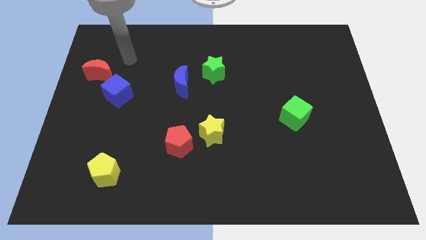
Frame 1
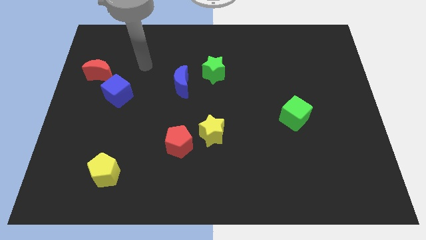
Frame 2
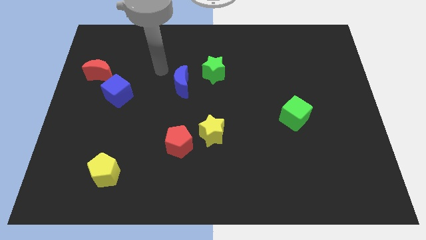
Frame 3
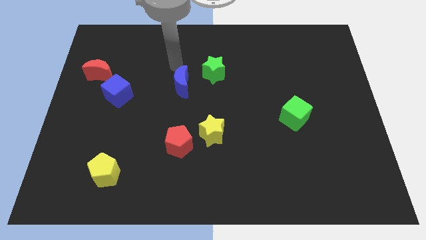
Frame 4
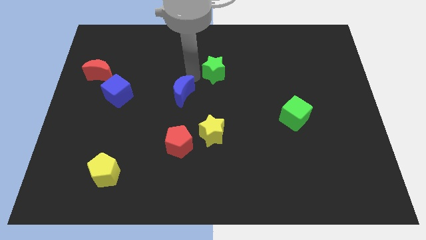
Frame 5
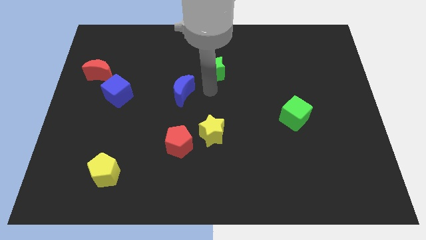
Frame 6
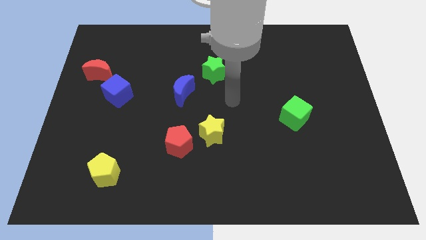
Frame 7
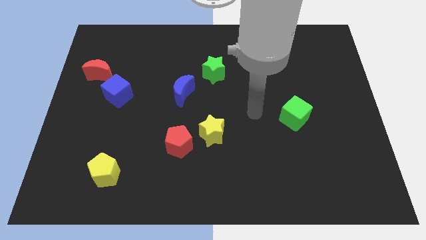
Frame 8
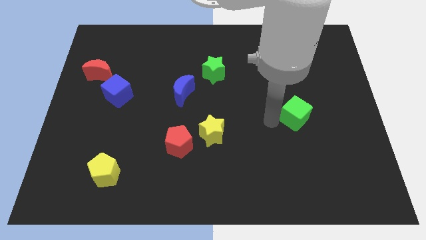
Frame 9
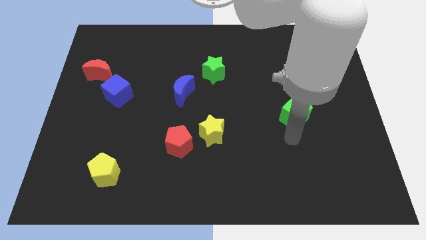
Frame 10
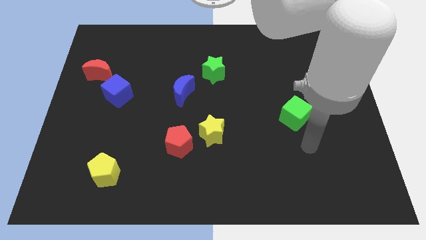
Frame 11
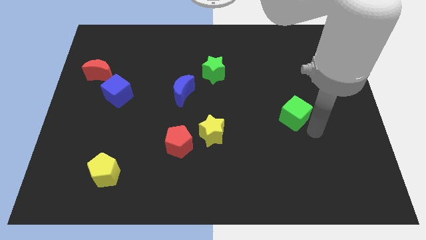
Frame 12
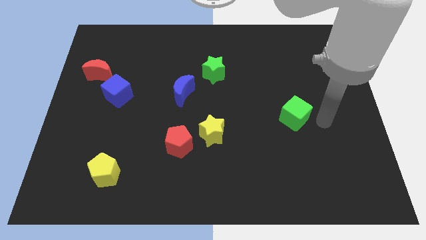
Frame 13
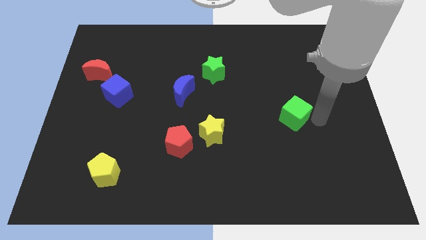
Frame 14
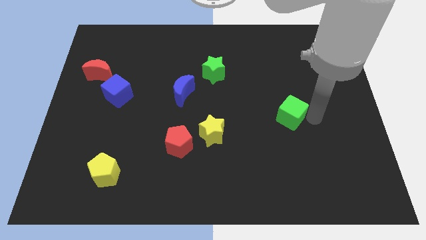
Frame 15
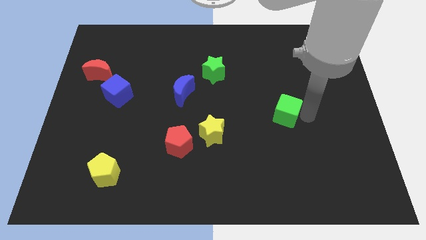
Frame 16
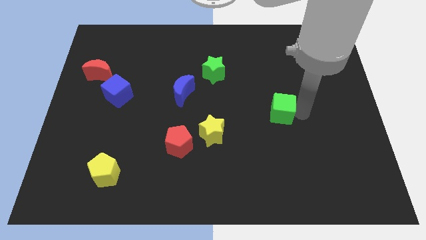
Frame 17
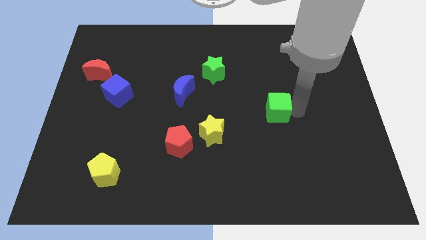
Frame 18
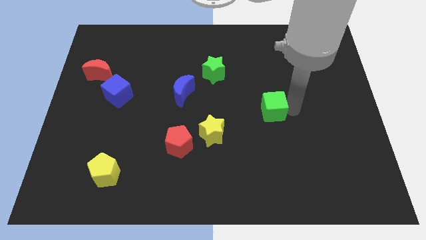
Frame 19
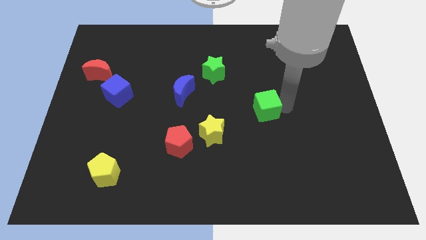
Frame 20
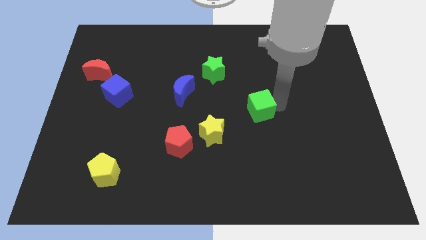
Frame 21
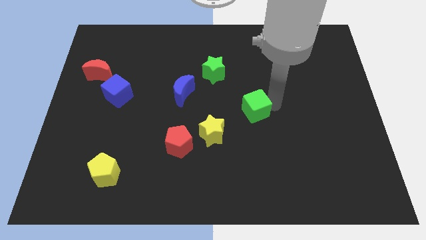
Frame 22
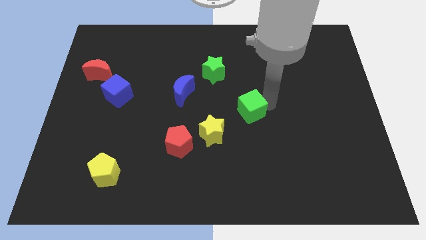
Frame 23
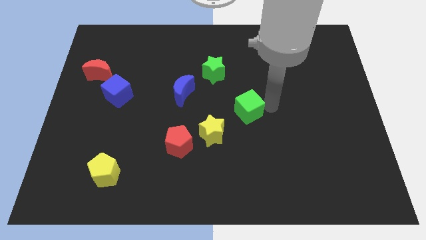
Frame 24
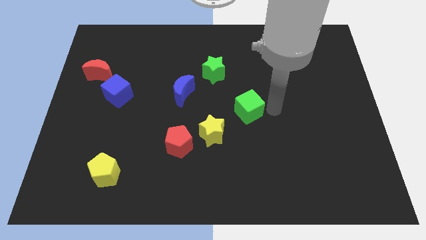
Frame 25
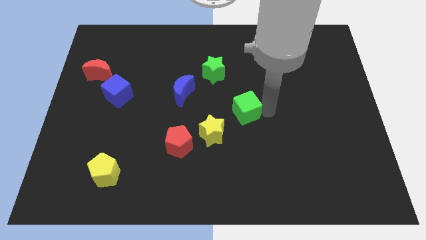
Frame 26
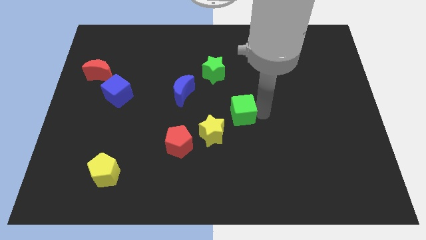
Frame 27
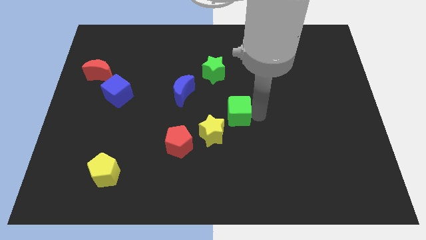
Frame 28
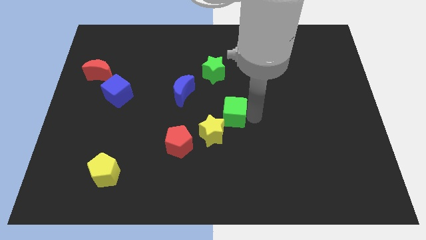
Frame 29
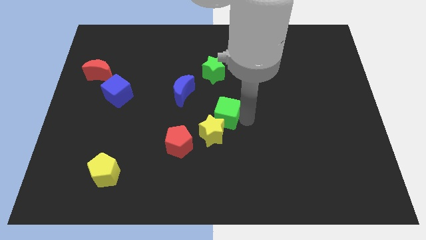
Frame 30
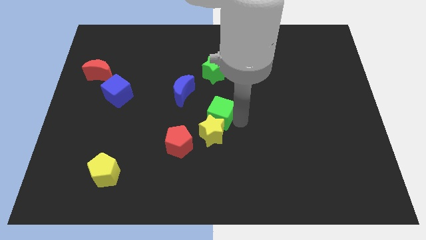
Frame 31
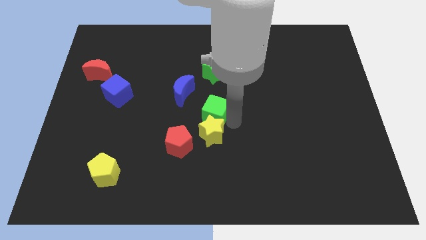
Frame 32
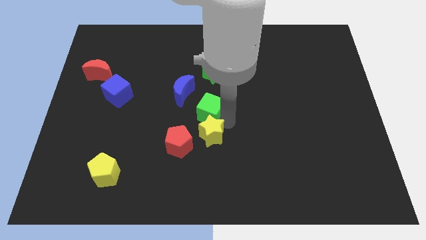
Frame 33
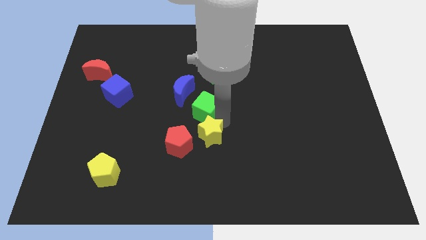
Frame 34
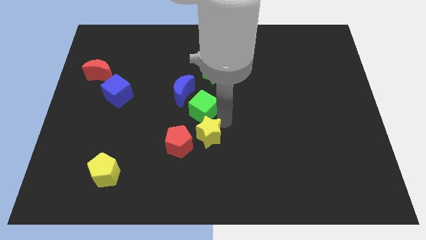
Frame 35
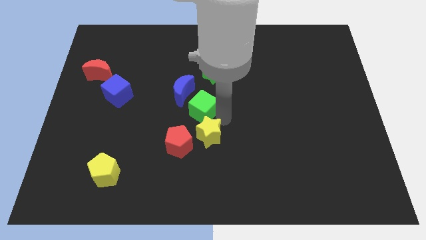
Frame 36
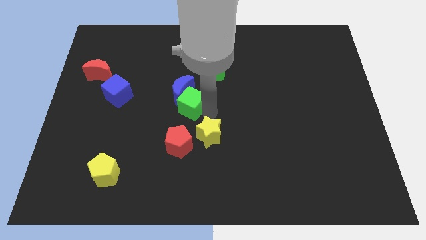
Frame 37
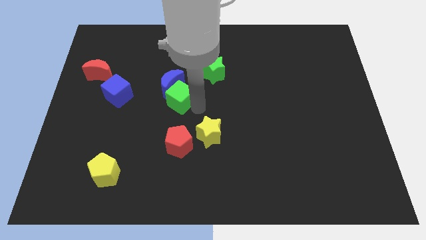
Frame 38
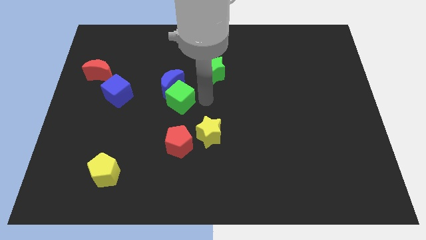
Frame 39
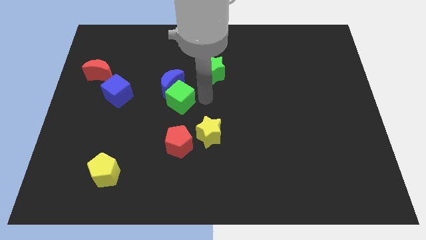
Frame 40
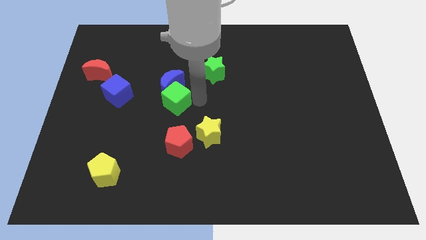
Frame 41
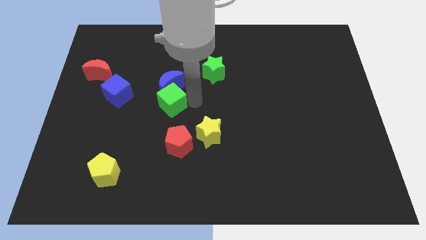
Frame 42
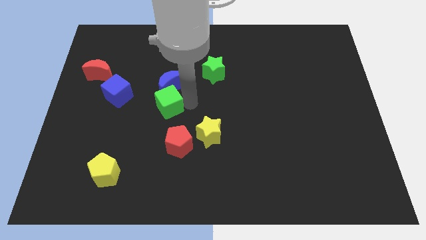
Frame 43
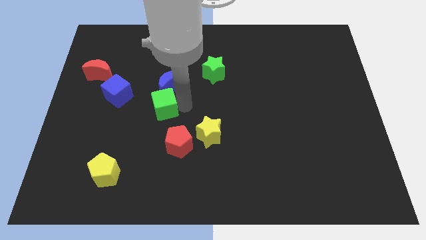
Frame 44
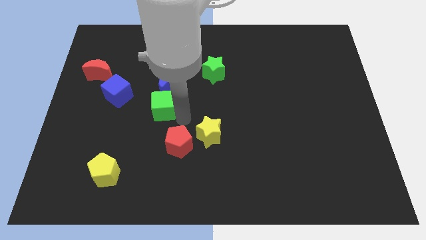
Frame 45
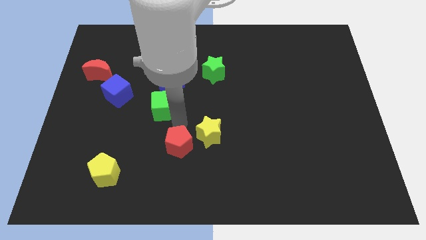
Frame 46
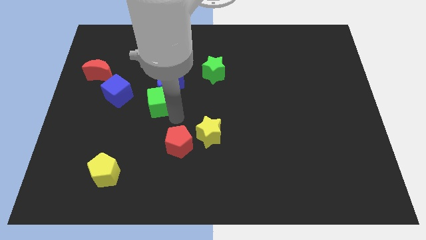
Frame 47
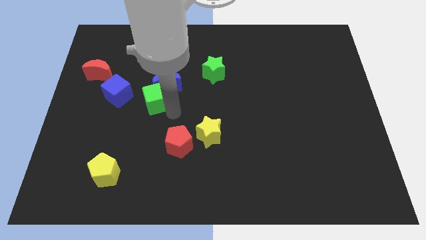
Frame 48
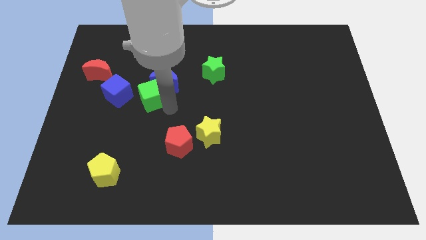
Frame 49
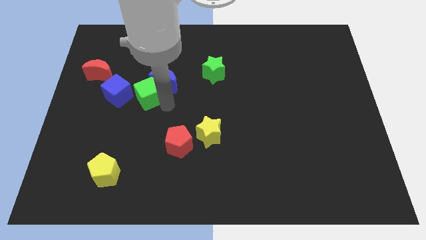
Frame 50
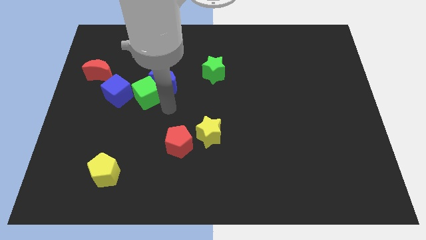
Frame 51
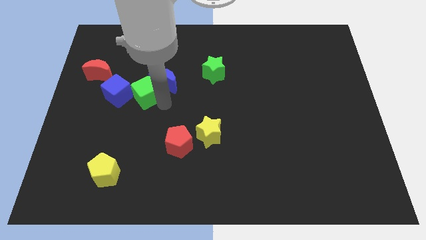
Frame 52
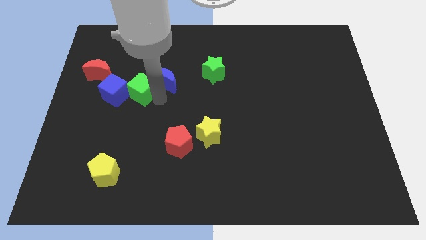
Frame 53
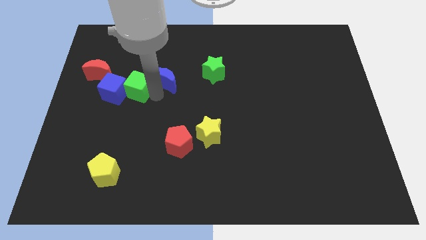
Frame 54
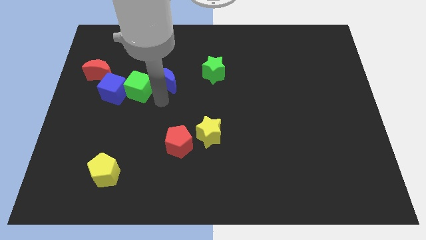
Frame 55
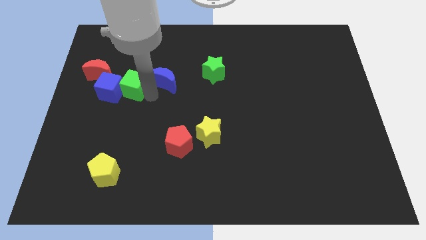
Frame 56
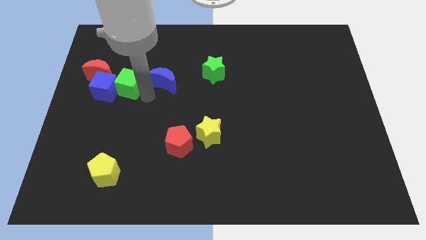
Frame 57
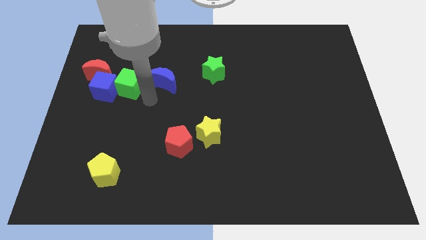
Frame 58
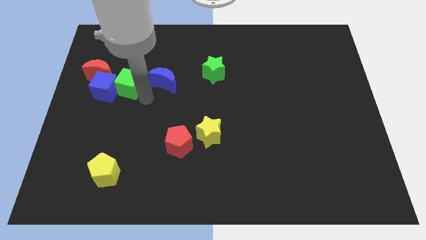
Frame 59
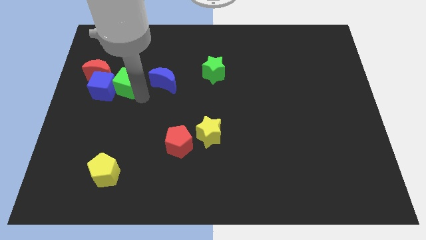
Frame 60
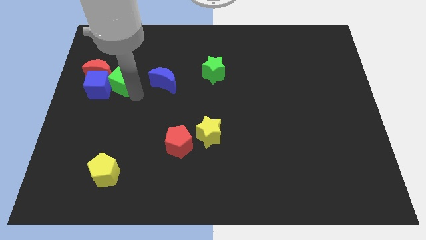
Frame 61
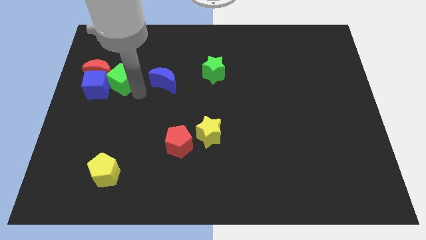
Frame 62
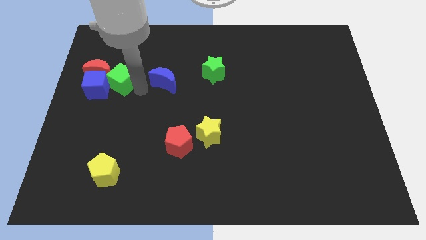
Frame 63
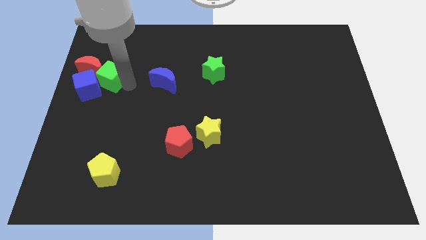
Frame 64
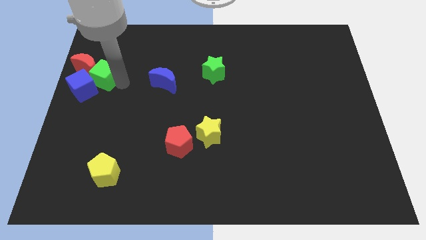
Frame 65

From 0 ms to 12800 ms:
push the green cube to the red moon

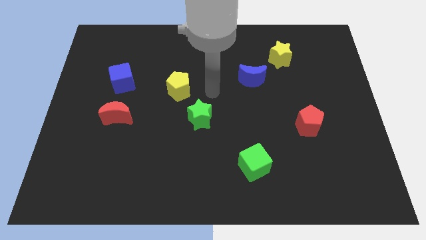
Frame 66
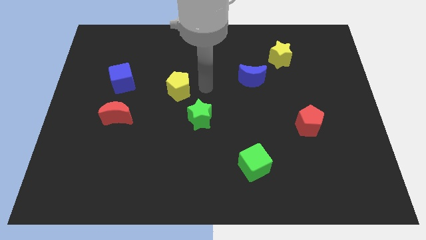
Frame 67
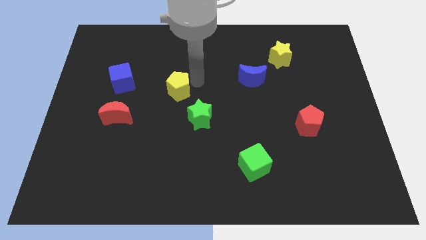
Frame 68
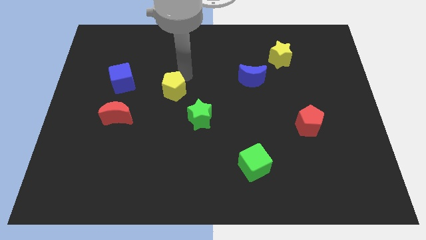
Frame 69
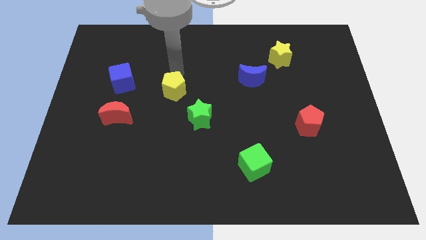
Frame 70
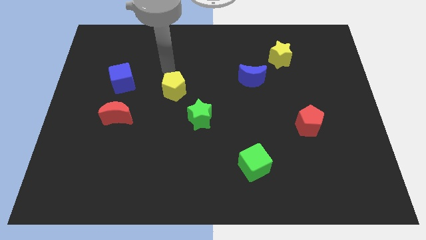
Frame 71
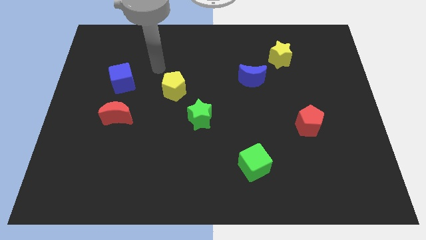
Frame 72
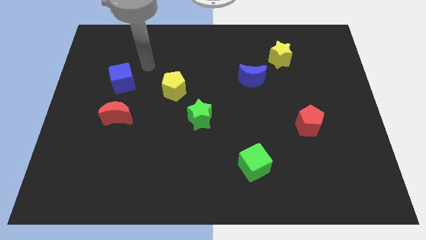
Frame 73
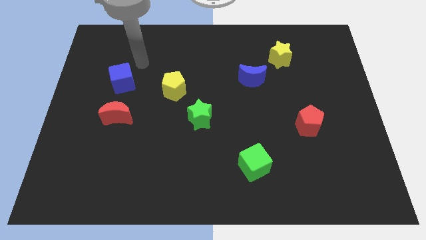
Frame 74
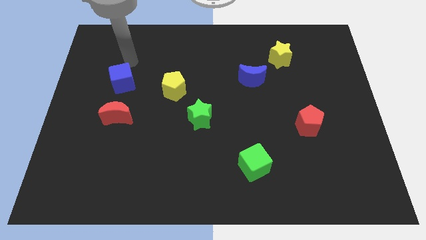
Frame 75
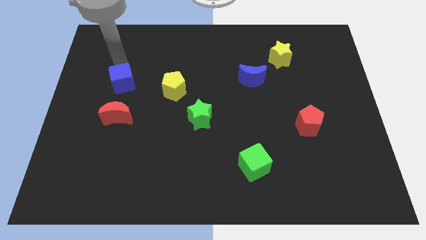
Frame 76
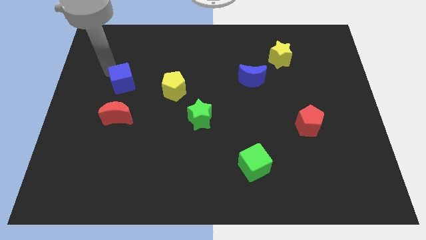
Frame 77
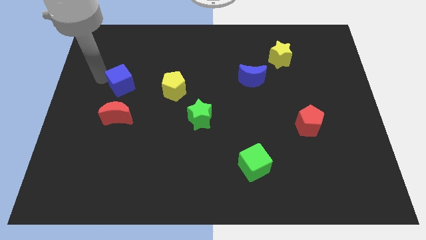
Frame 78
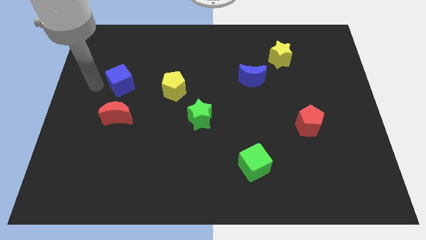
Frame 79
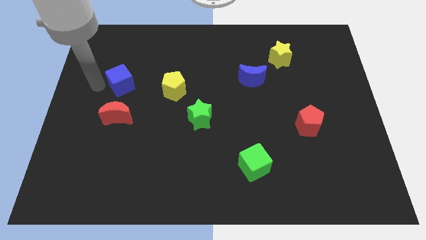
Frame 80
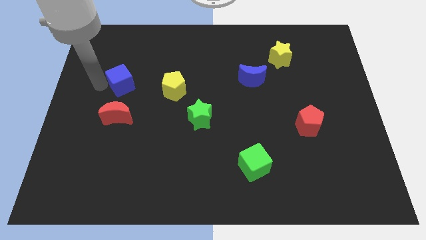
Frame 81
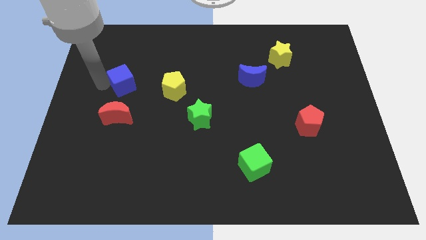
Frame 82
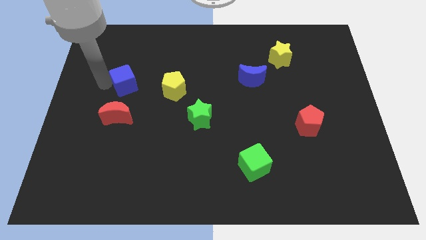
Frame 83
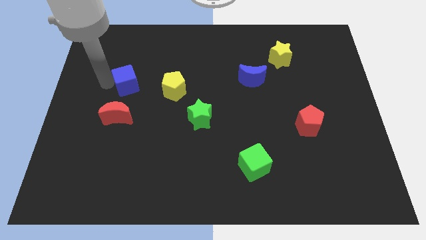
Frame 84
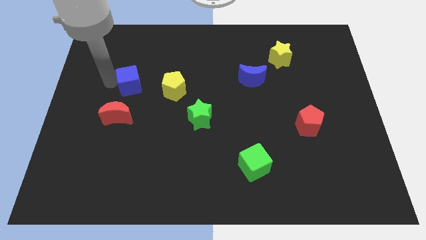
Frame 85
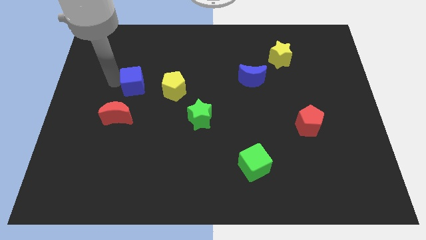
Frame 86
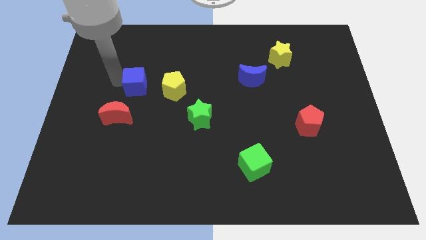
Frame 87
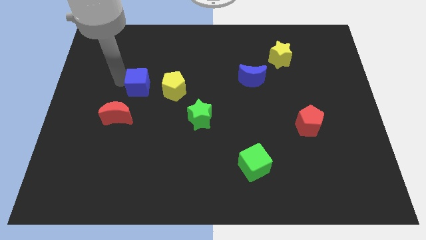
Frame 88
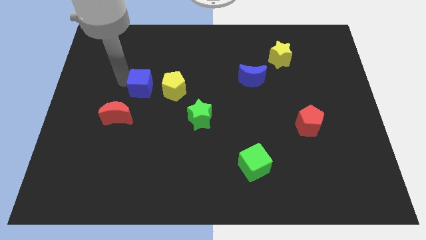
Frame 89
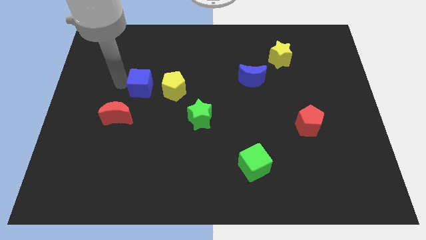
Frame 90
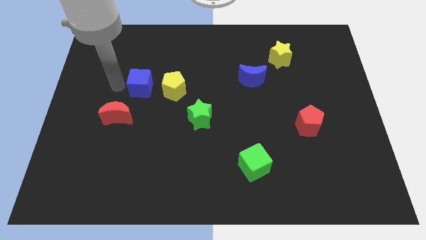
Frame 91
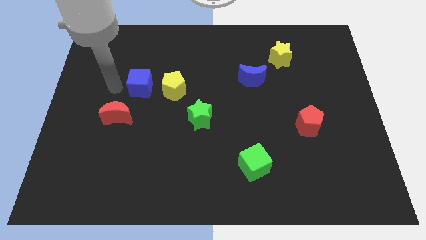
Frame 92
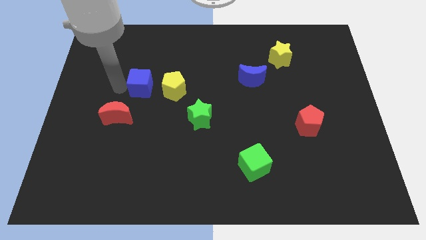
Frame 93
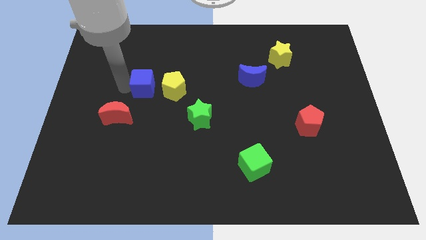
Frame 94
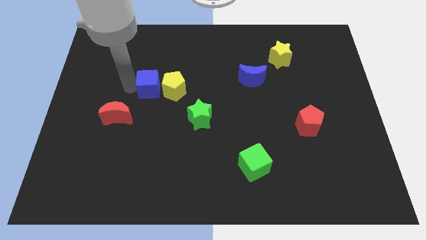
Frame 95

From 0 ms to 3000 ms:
put the blue cube towards the yellow pentagon
